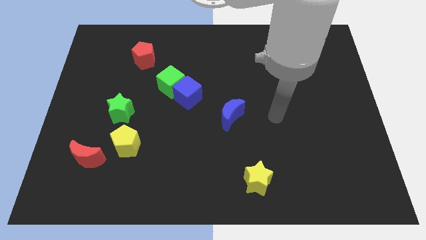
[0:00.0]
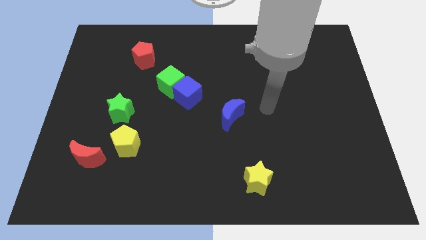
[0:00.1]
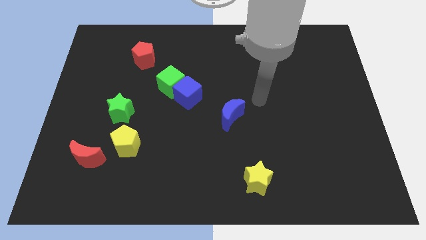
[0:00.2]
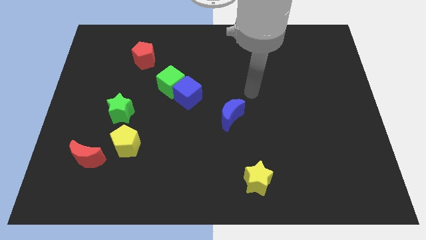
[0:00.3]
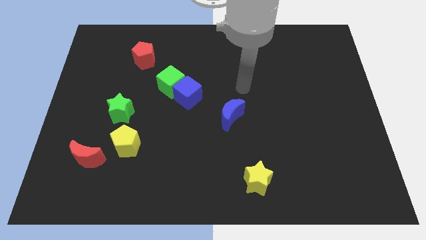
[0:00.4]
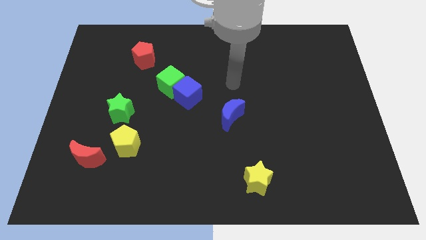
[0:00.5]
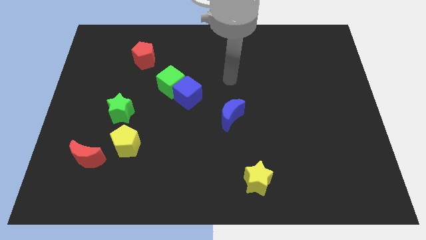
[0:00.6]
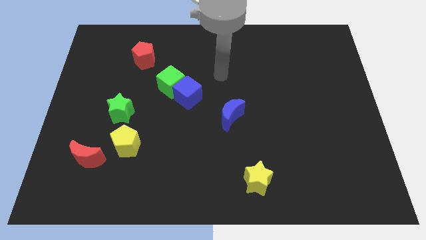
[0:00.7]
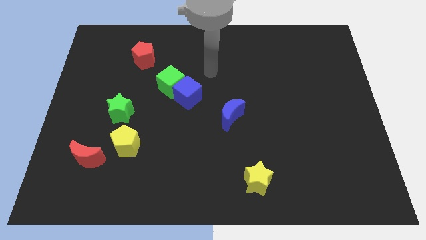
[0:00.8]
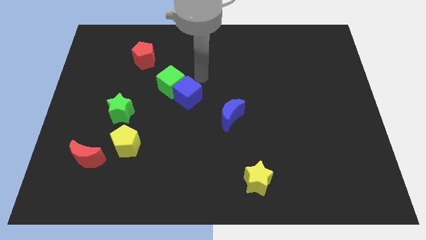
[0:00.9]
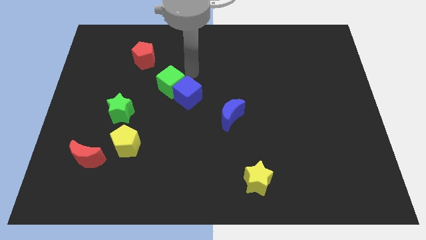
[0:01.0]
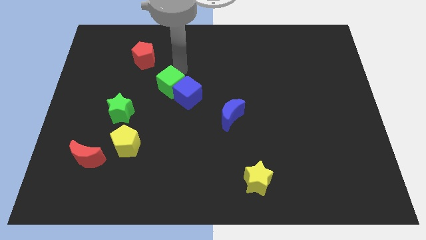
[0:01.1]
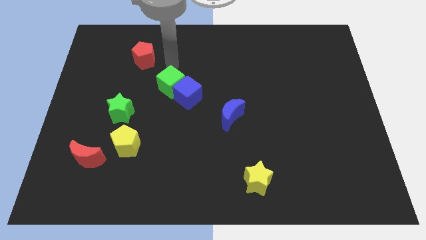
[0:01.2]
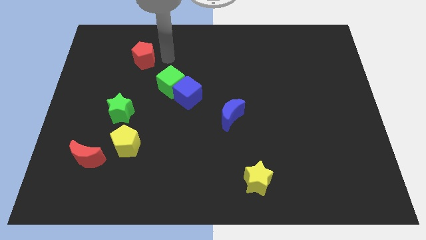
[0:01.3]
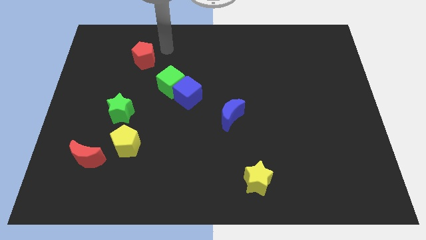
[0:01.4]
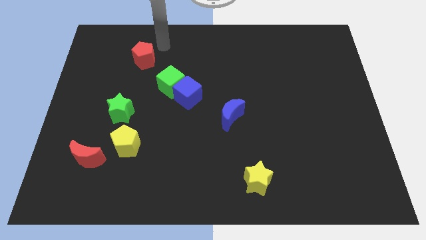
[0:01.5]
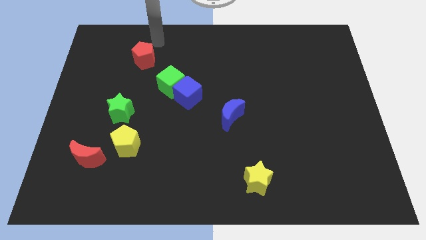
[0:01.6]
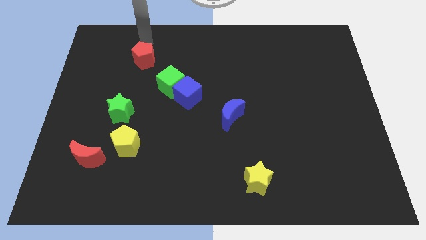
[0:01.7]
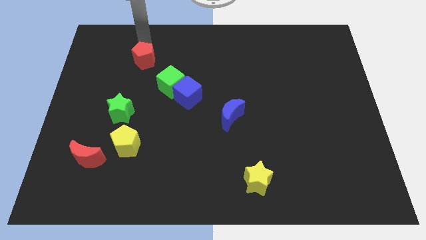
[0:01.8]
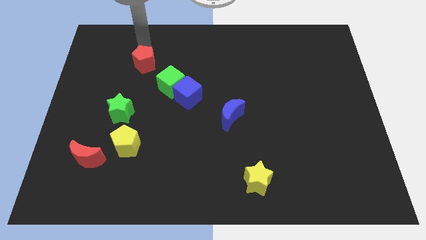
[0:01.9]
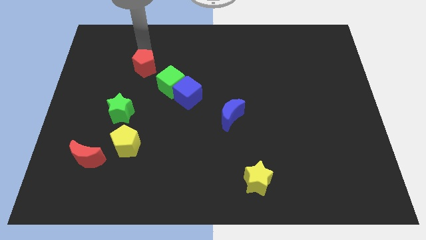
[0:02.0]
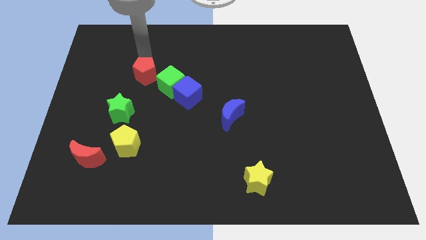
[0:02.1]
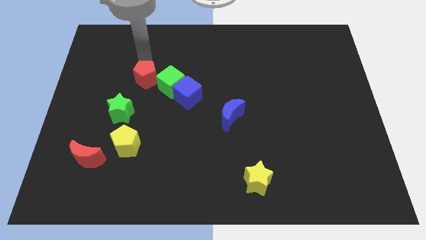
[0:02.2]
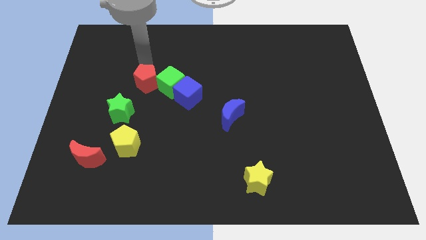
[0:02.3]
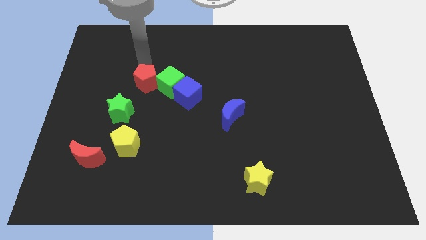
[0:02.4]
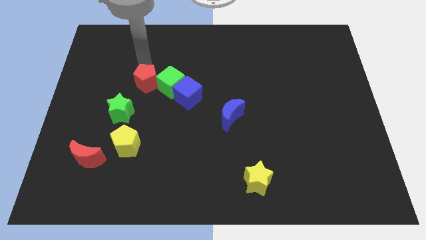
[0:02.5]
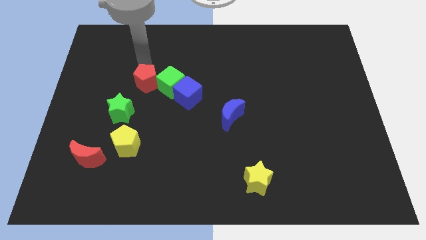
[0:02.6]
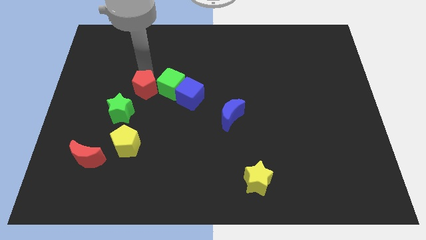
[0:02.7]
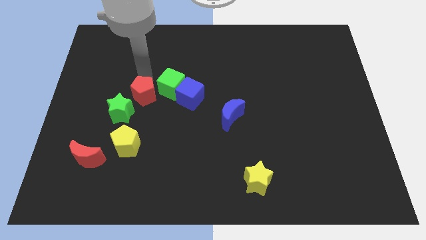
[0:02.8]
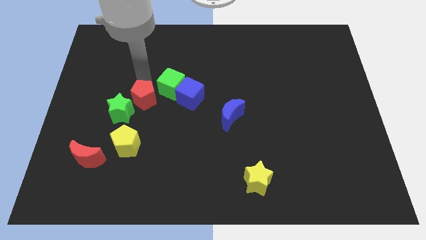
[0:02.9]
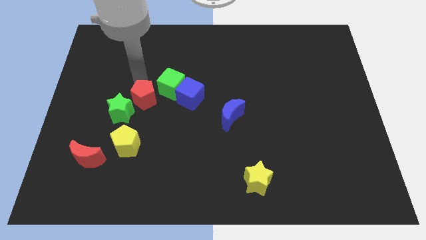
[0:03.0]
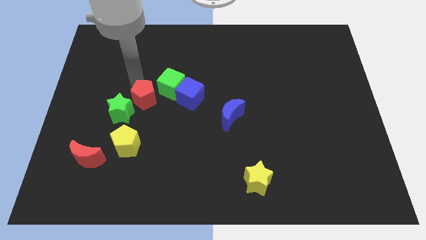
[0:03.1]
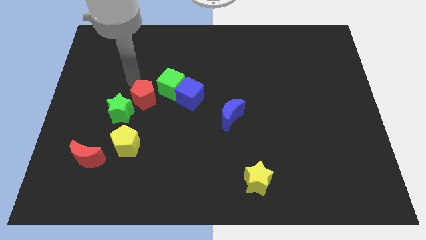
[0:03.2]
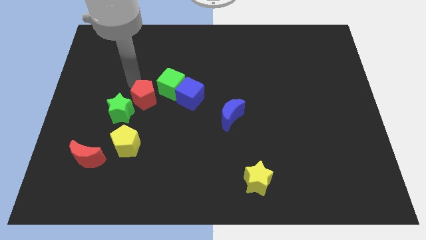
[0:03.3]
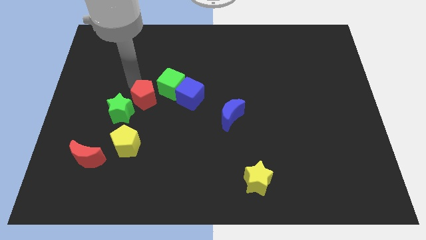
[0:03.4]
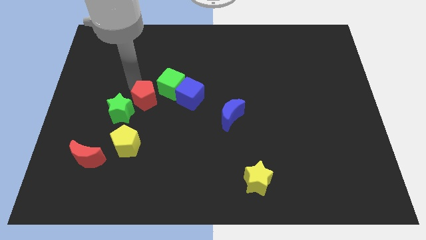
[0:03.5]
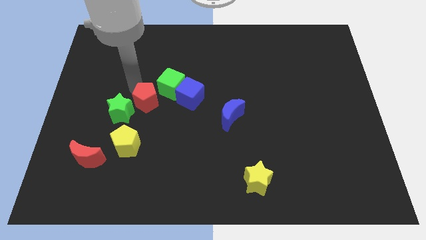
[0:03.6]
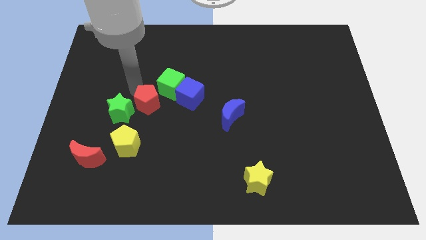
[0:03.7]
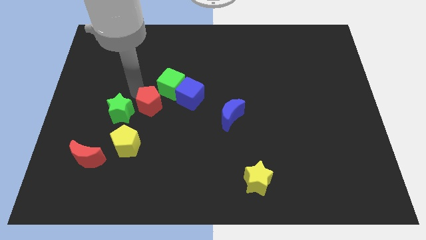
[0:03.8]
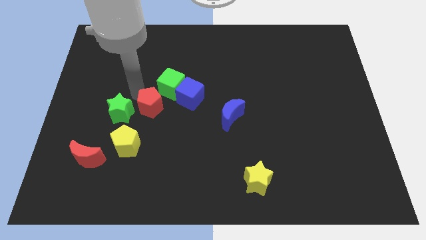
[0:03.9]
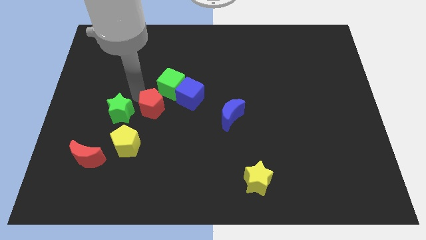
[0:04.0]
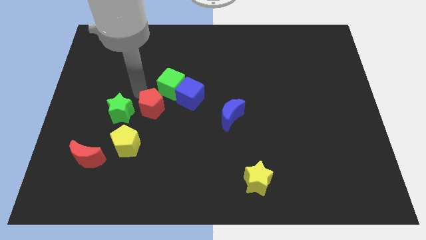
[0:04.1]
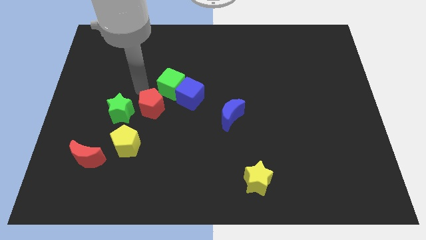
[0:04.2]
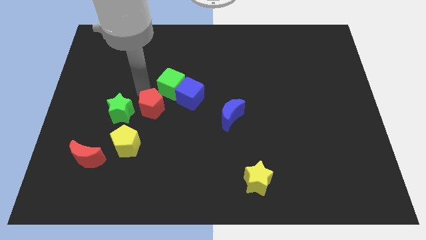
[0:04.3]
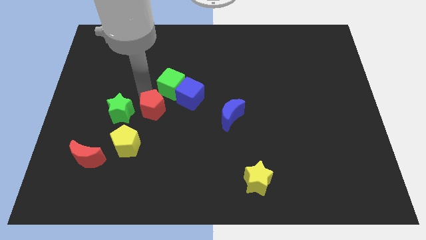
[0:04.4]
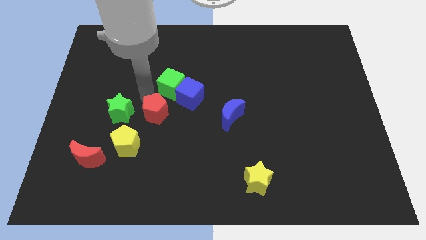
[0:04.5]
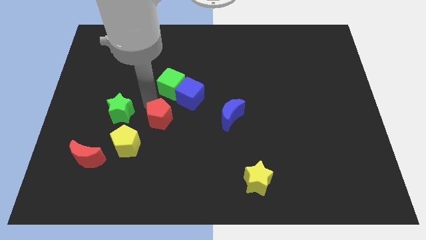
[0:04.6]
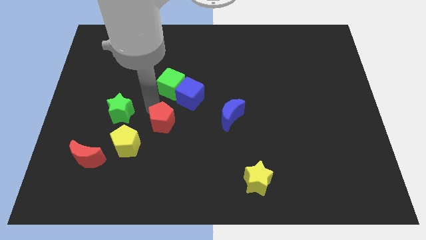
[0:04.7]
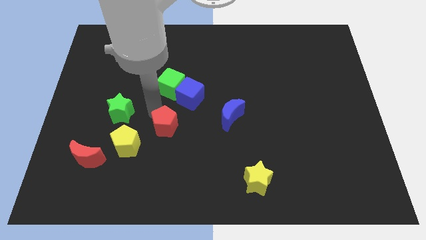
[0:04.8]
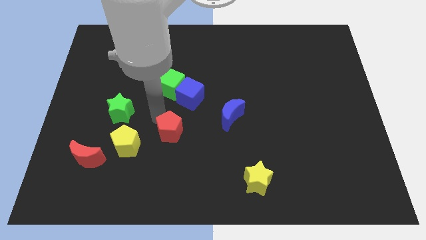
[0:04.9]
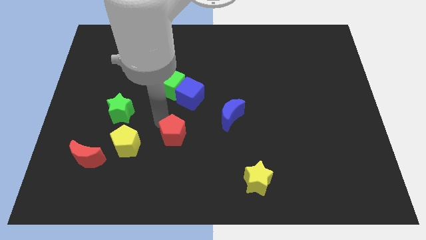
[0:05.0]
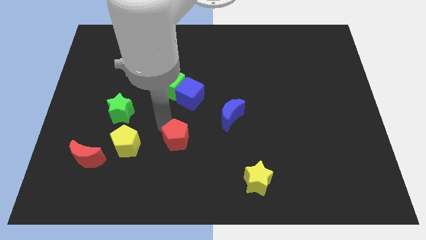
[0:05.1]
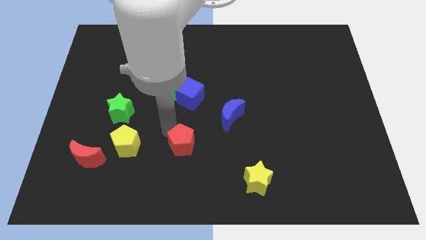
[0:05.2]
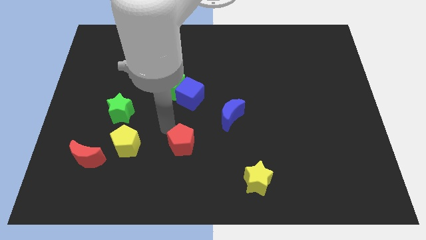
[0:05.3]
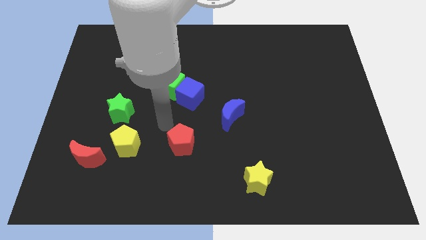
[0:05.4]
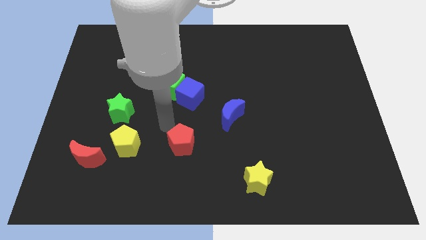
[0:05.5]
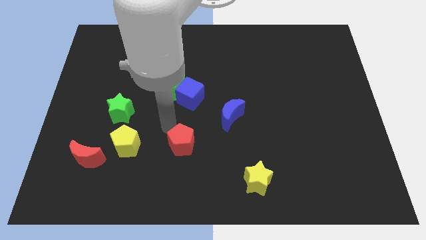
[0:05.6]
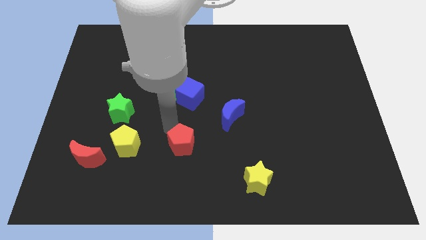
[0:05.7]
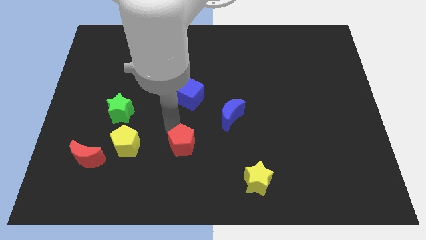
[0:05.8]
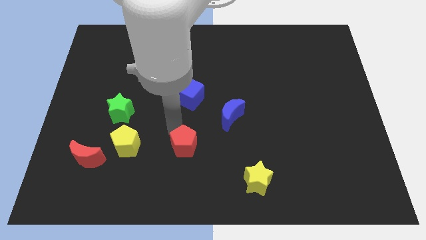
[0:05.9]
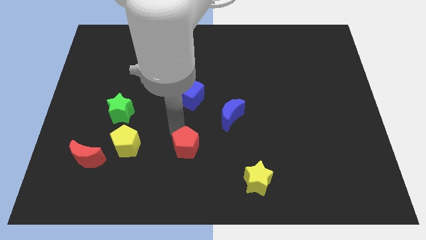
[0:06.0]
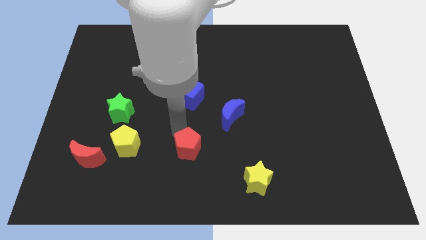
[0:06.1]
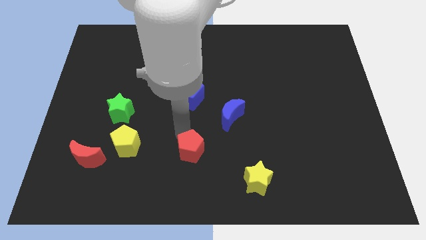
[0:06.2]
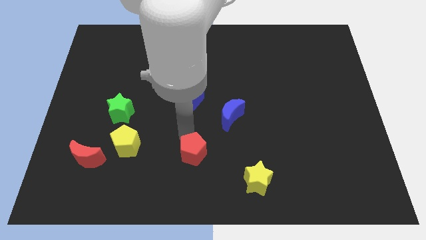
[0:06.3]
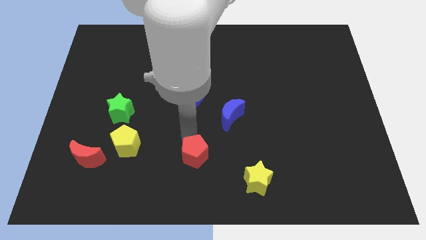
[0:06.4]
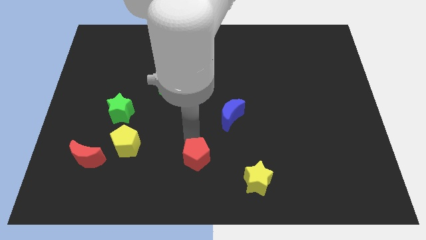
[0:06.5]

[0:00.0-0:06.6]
slide the red pentagon to the bottom side
